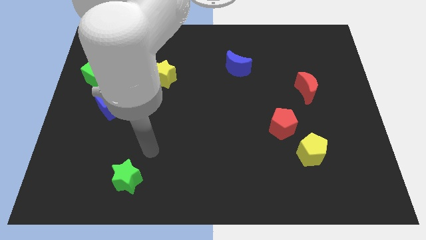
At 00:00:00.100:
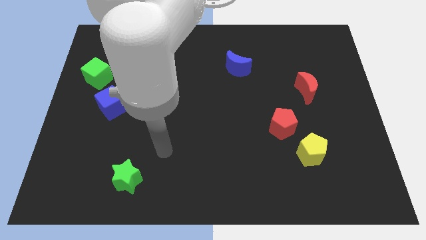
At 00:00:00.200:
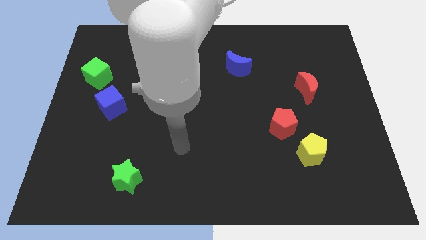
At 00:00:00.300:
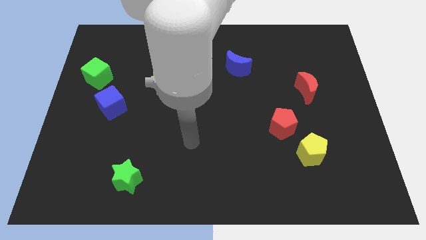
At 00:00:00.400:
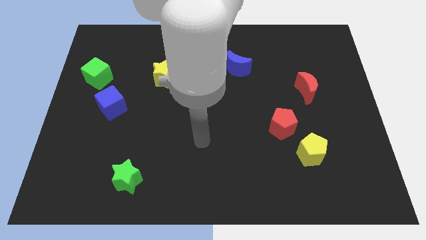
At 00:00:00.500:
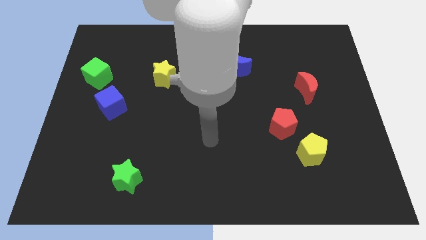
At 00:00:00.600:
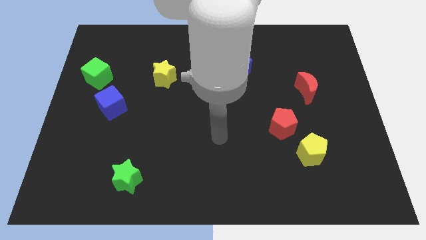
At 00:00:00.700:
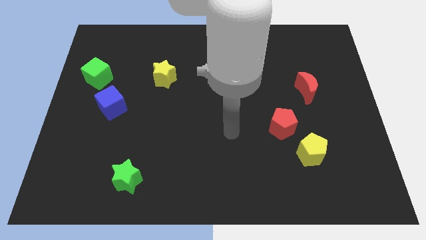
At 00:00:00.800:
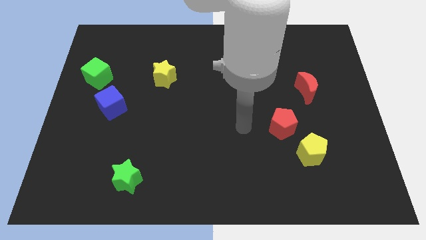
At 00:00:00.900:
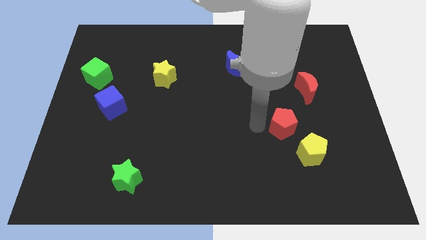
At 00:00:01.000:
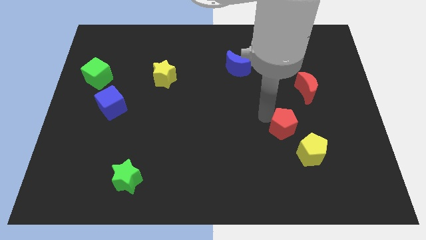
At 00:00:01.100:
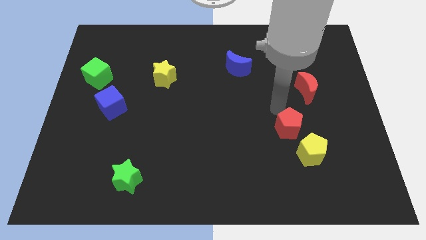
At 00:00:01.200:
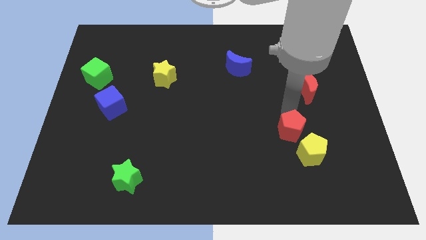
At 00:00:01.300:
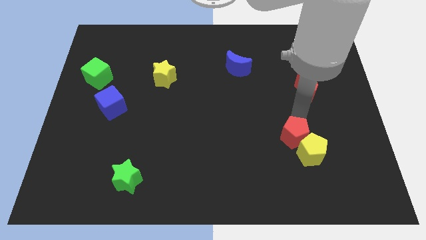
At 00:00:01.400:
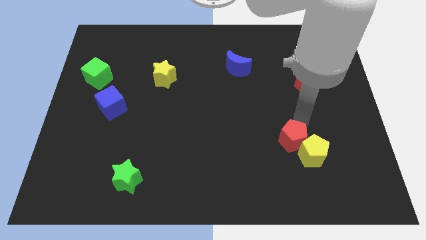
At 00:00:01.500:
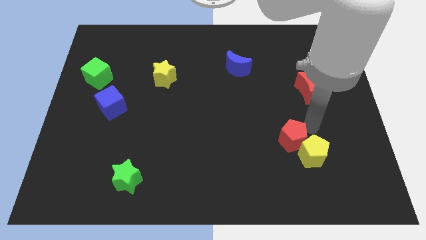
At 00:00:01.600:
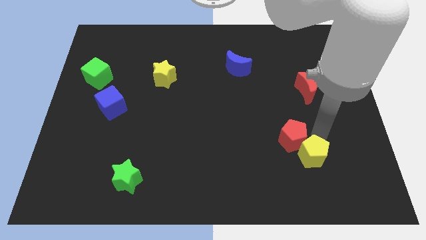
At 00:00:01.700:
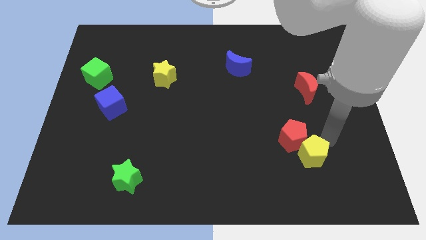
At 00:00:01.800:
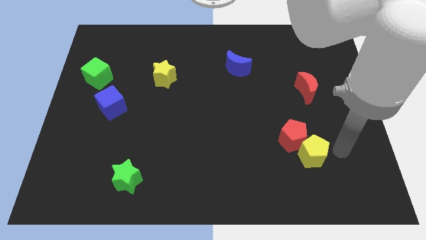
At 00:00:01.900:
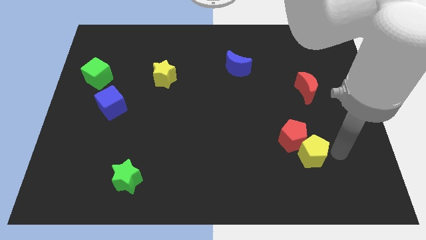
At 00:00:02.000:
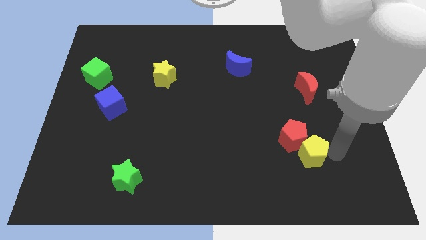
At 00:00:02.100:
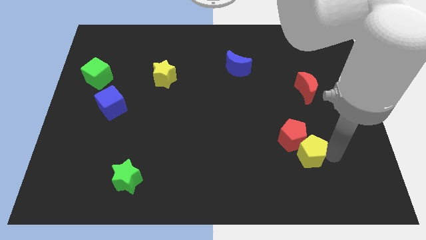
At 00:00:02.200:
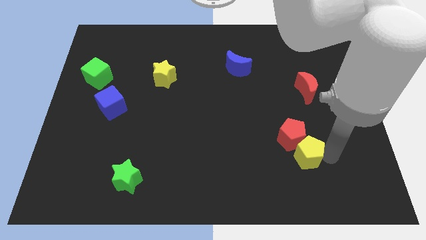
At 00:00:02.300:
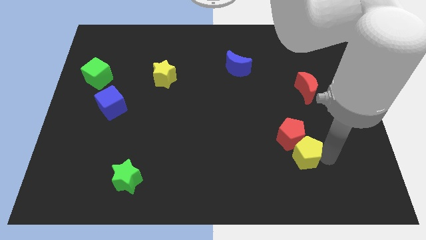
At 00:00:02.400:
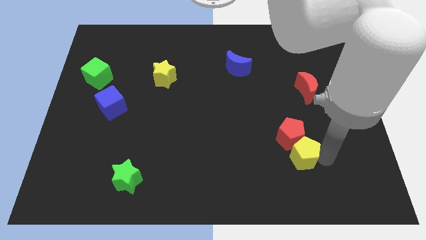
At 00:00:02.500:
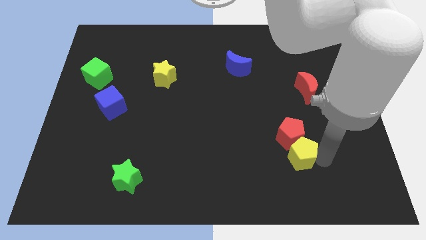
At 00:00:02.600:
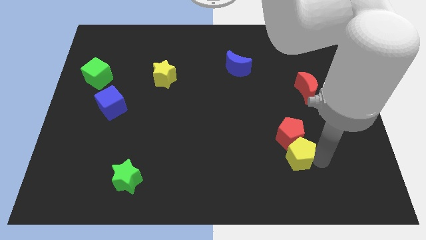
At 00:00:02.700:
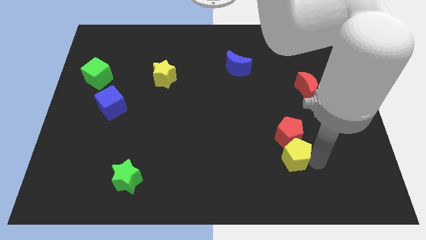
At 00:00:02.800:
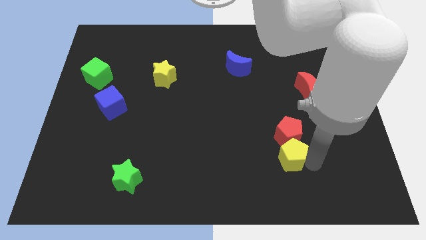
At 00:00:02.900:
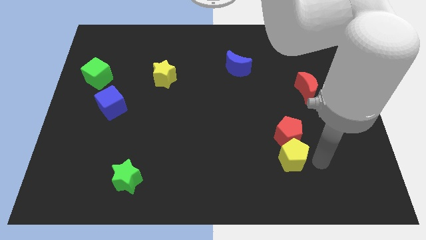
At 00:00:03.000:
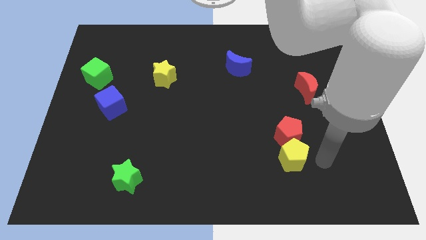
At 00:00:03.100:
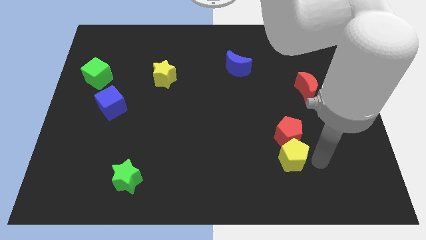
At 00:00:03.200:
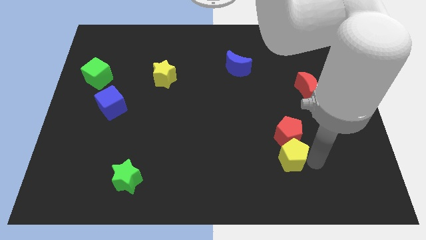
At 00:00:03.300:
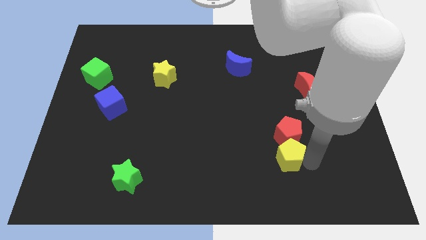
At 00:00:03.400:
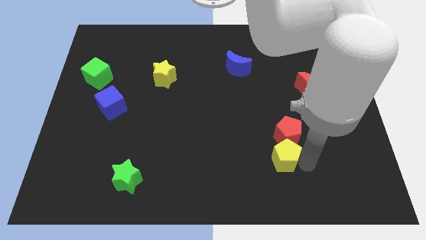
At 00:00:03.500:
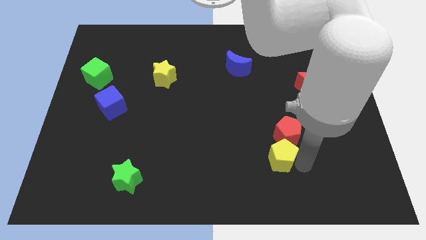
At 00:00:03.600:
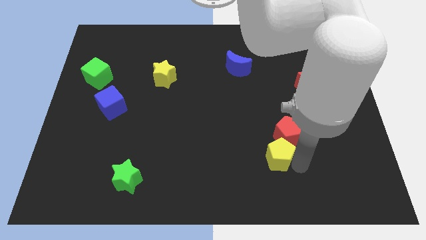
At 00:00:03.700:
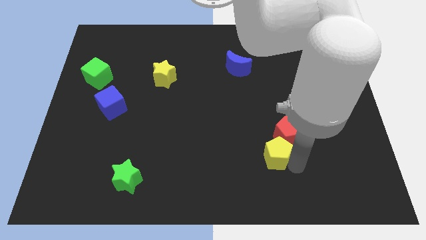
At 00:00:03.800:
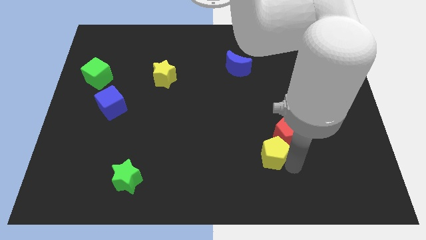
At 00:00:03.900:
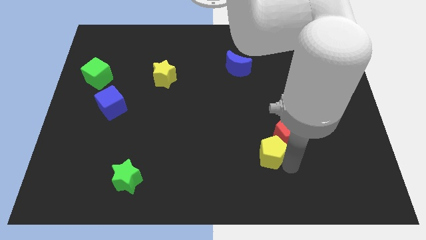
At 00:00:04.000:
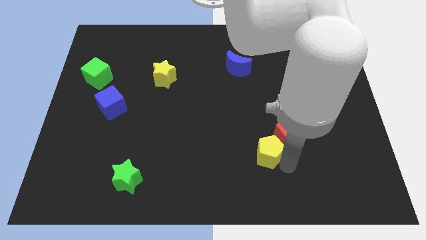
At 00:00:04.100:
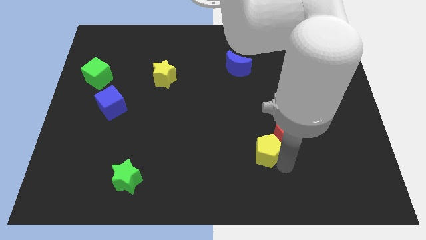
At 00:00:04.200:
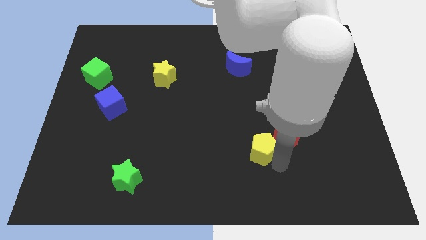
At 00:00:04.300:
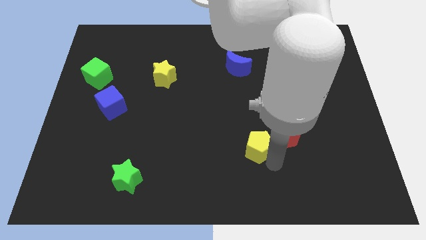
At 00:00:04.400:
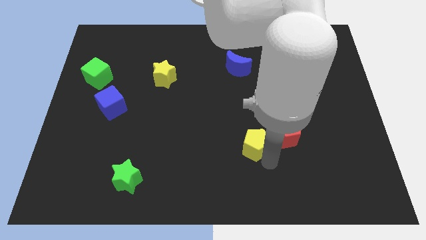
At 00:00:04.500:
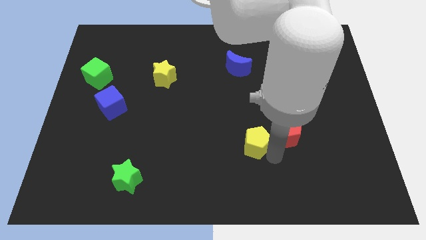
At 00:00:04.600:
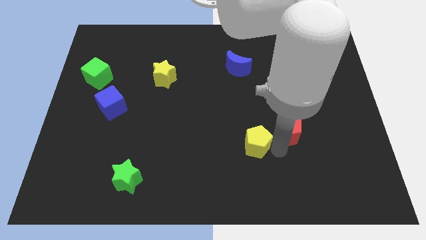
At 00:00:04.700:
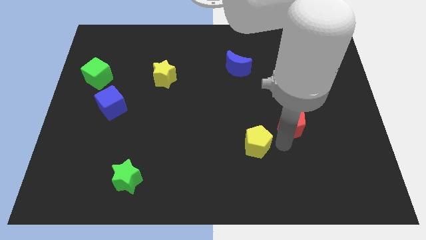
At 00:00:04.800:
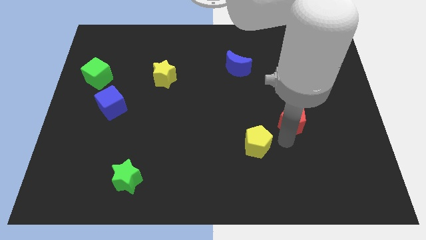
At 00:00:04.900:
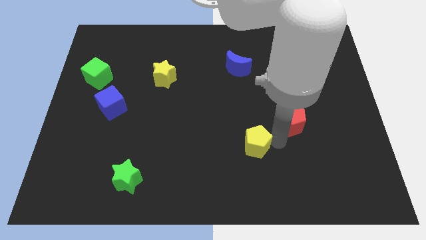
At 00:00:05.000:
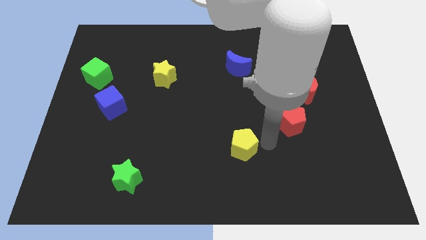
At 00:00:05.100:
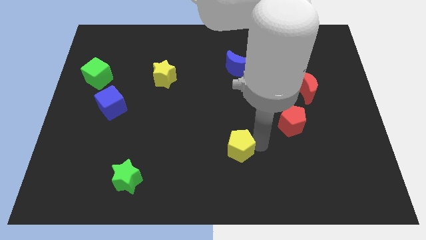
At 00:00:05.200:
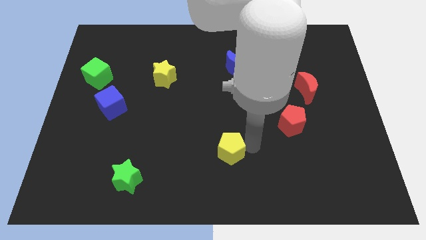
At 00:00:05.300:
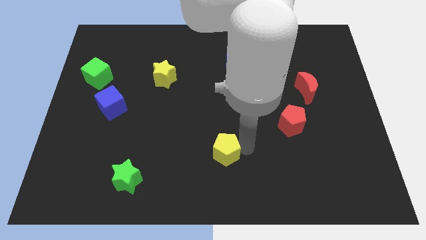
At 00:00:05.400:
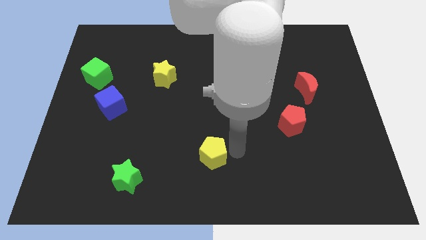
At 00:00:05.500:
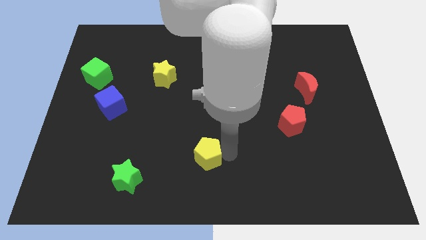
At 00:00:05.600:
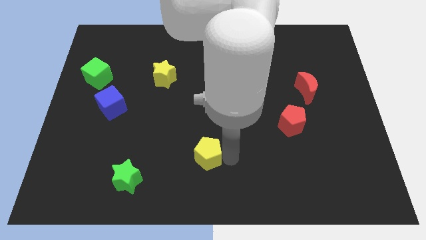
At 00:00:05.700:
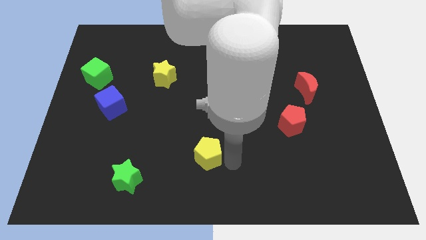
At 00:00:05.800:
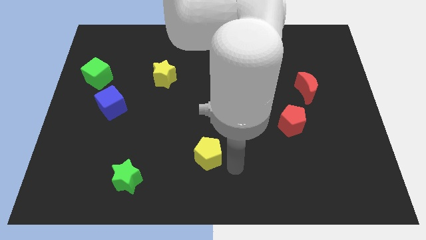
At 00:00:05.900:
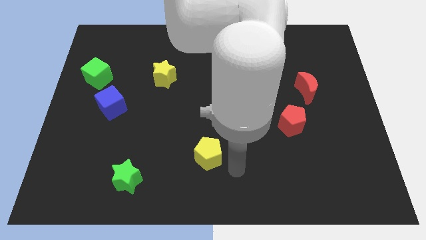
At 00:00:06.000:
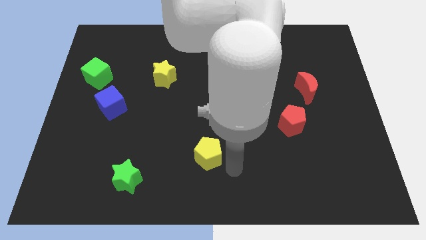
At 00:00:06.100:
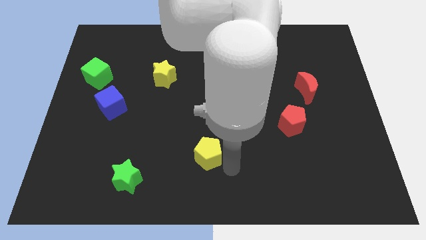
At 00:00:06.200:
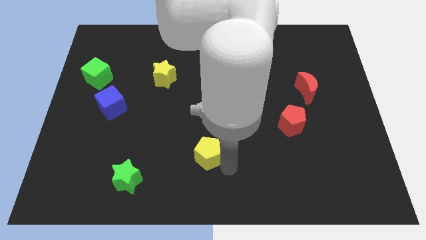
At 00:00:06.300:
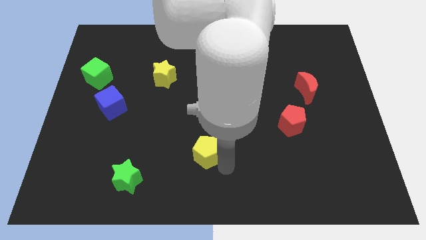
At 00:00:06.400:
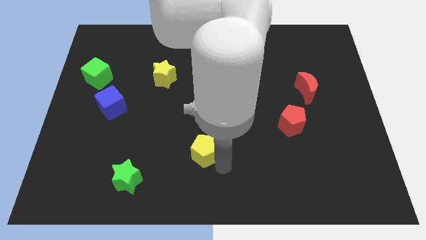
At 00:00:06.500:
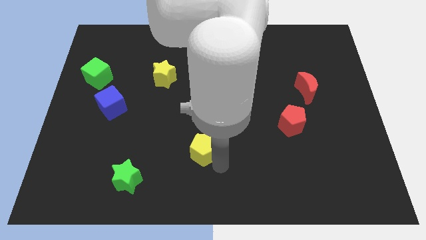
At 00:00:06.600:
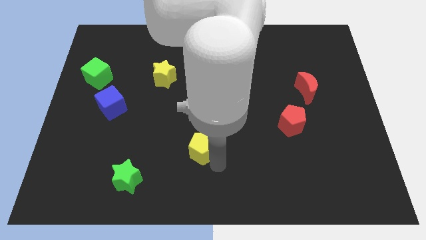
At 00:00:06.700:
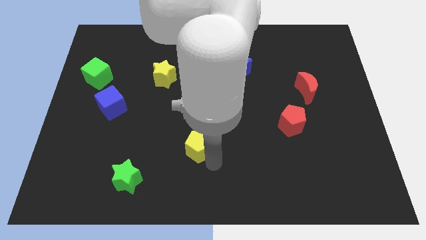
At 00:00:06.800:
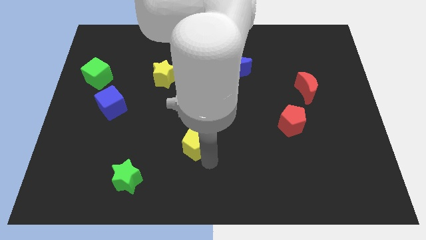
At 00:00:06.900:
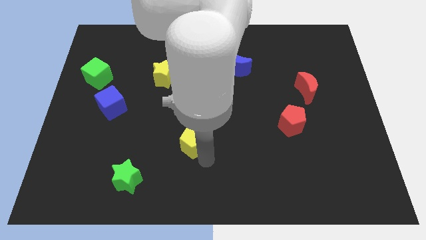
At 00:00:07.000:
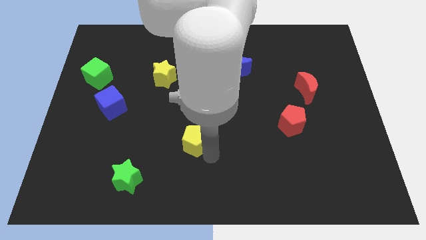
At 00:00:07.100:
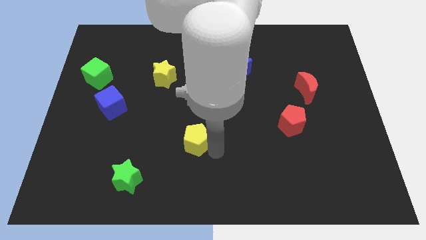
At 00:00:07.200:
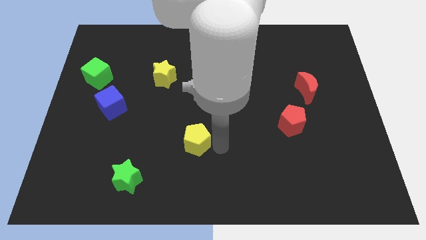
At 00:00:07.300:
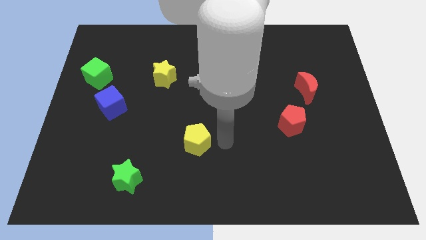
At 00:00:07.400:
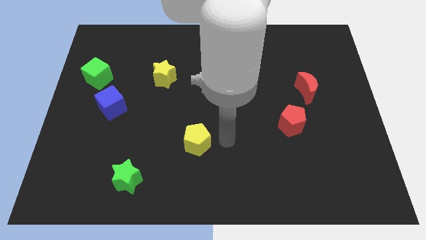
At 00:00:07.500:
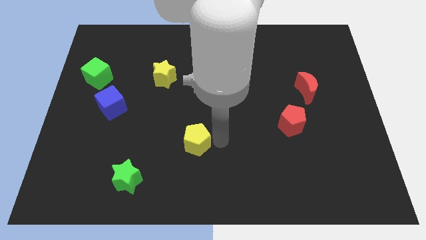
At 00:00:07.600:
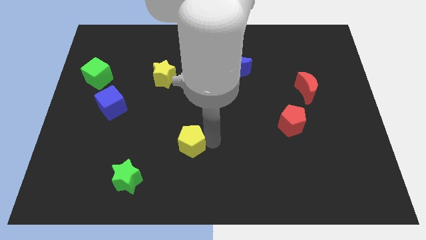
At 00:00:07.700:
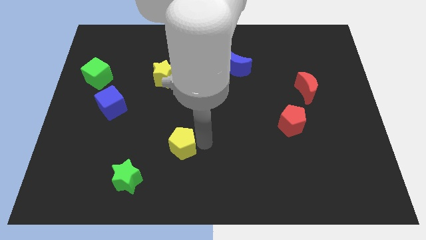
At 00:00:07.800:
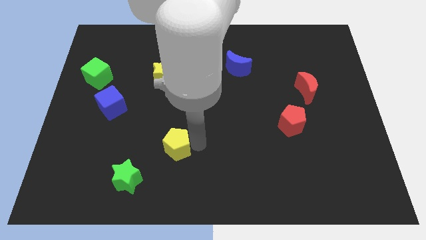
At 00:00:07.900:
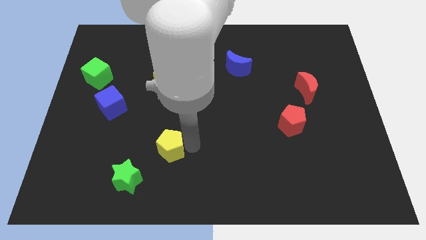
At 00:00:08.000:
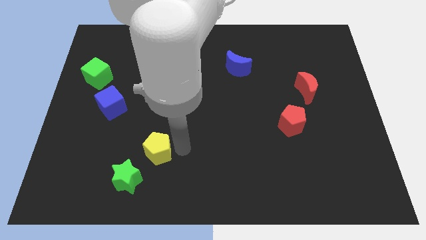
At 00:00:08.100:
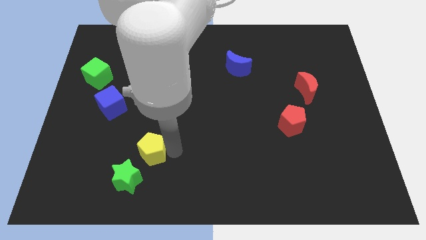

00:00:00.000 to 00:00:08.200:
slide the yellow pentagon above the green star
